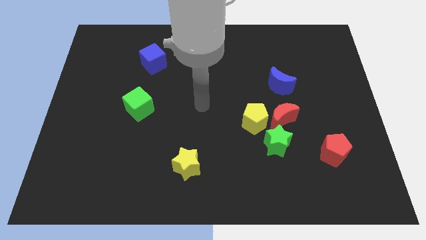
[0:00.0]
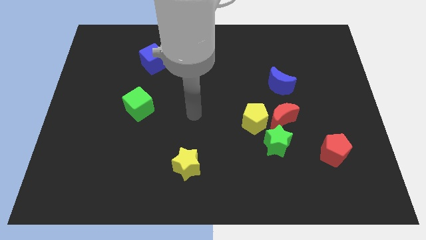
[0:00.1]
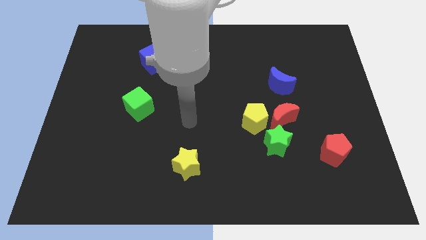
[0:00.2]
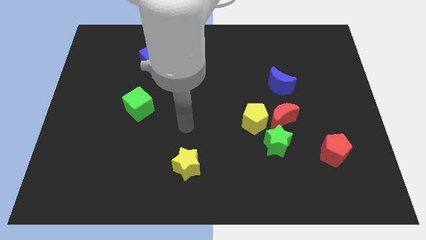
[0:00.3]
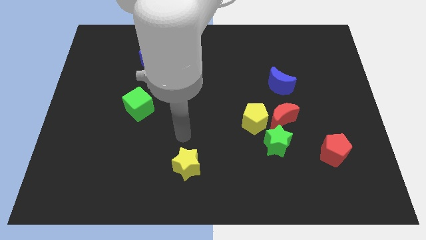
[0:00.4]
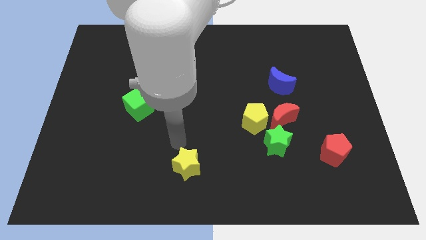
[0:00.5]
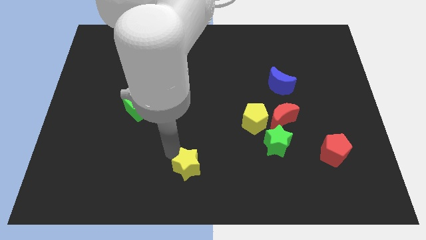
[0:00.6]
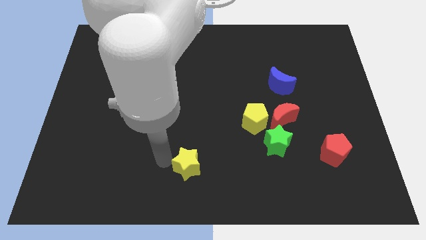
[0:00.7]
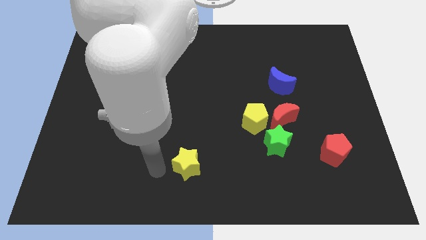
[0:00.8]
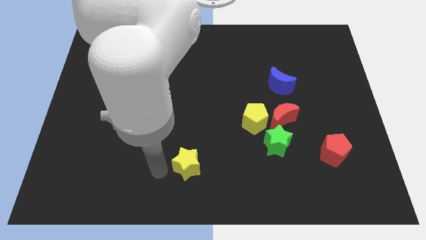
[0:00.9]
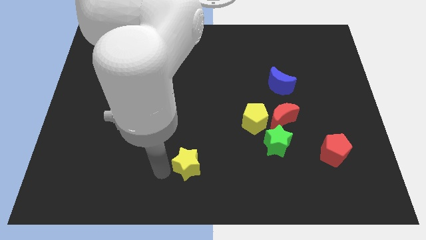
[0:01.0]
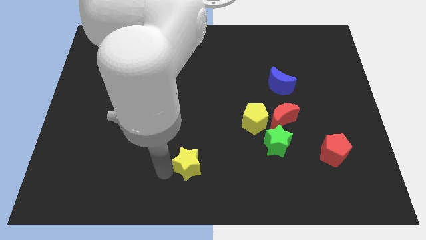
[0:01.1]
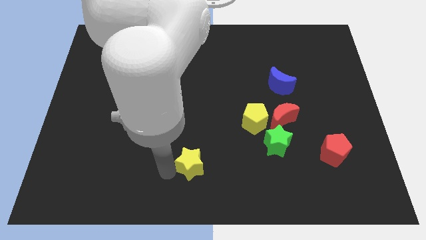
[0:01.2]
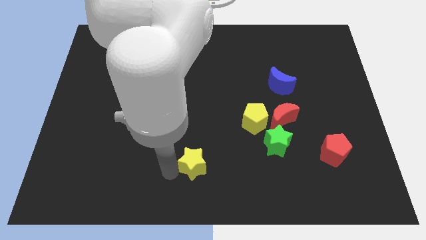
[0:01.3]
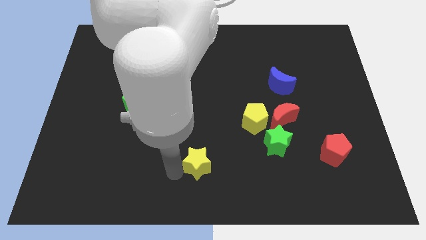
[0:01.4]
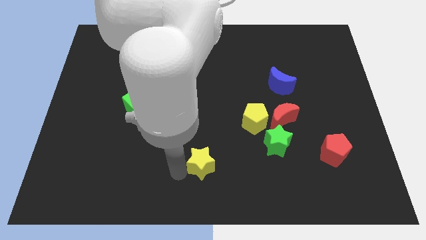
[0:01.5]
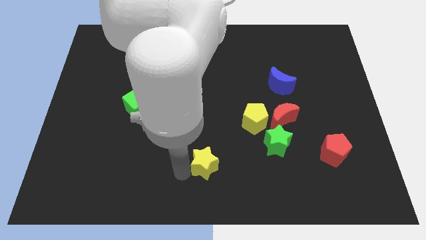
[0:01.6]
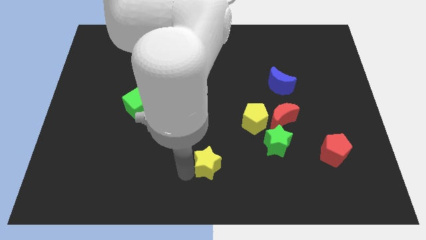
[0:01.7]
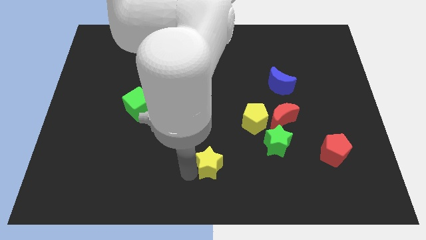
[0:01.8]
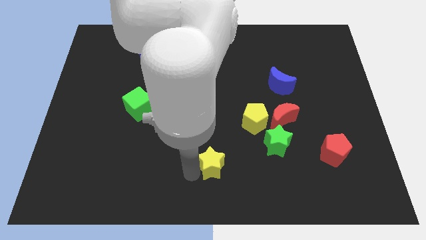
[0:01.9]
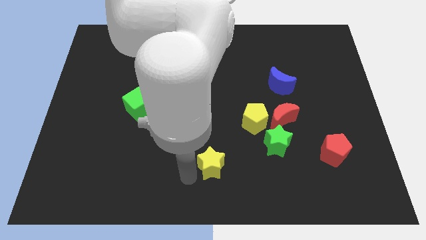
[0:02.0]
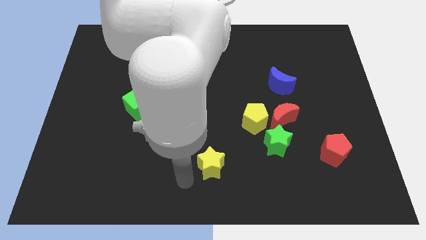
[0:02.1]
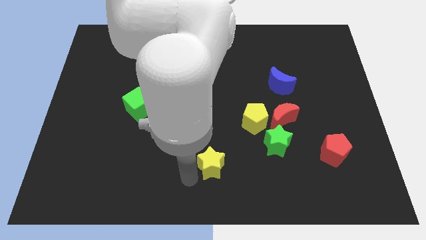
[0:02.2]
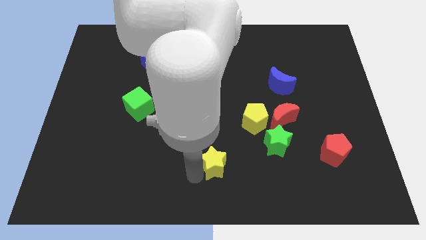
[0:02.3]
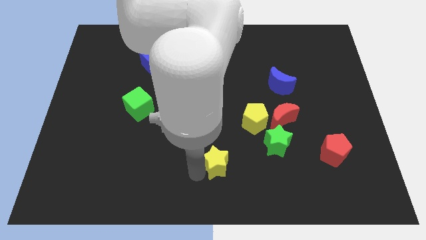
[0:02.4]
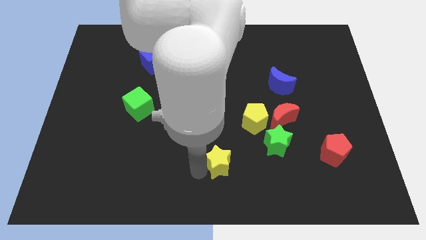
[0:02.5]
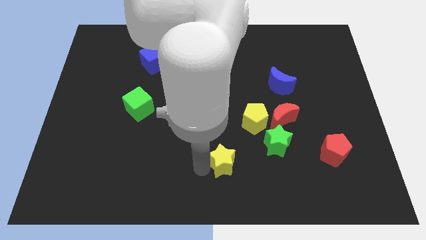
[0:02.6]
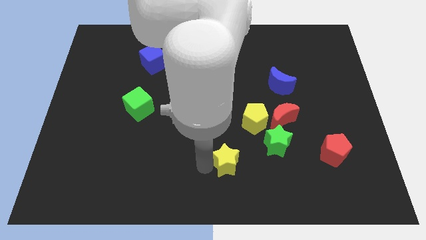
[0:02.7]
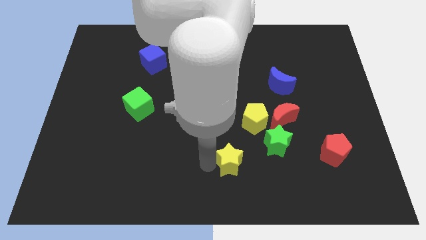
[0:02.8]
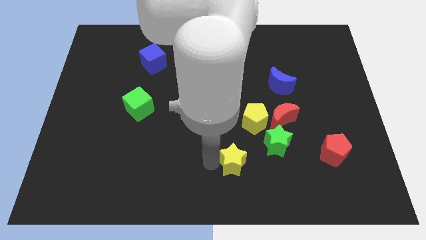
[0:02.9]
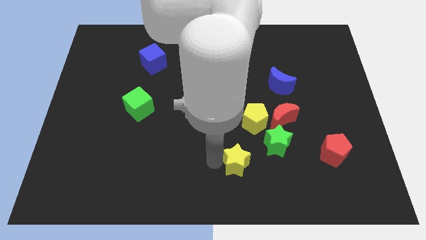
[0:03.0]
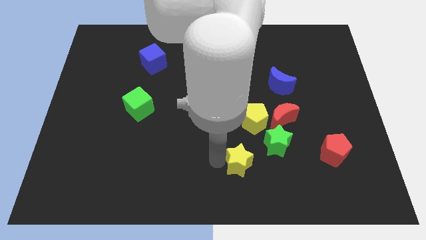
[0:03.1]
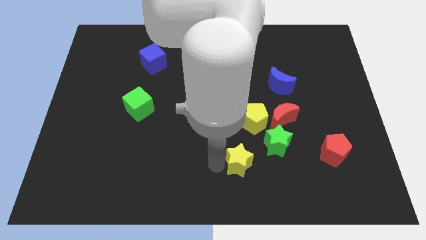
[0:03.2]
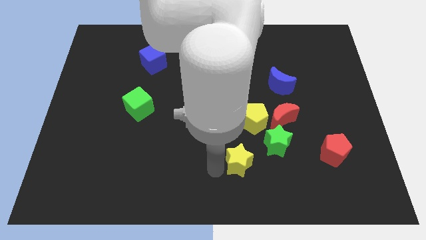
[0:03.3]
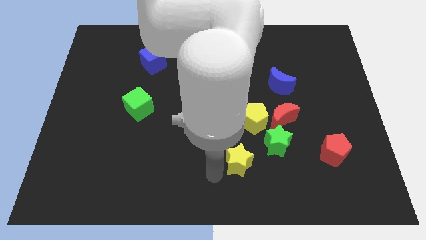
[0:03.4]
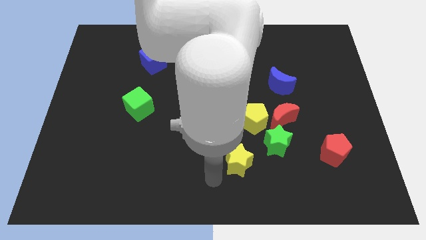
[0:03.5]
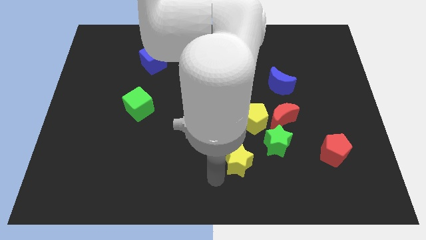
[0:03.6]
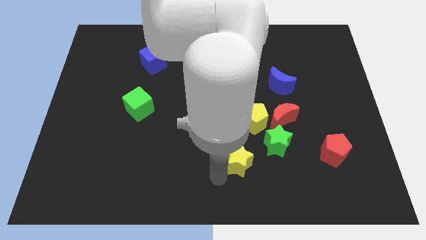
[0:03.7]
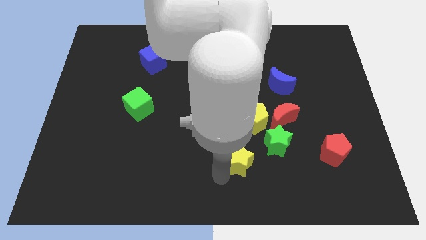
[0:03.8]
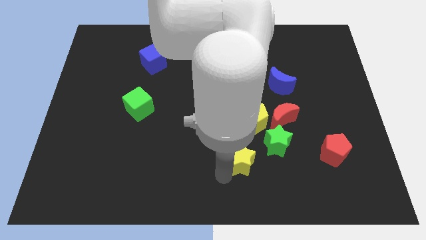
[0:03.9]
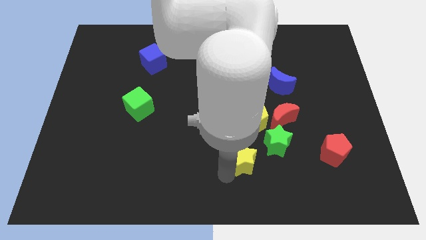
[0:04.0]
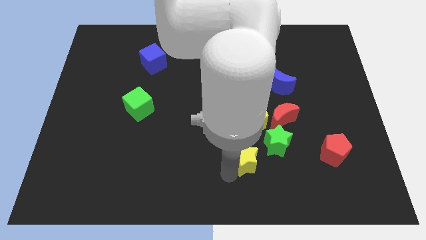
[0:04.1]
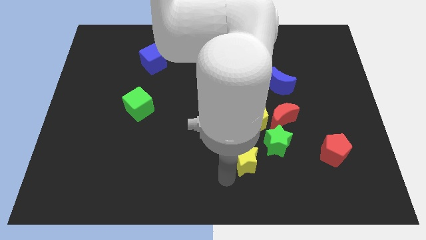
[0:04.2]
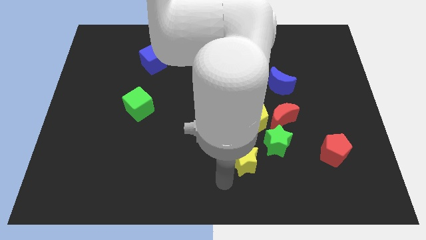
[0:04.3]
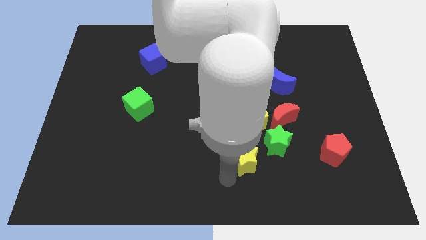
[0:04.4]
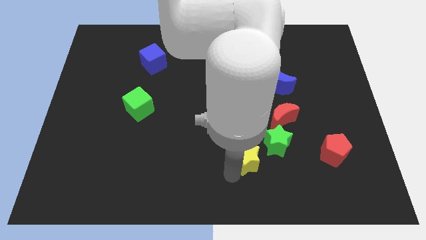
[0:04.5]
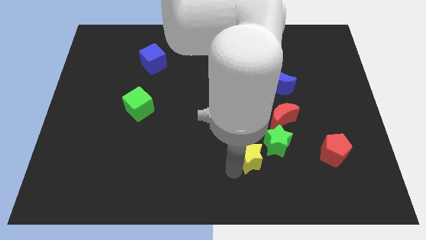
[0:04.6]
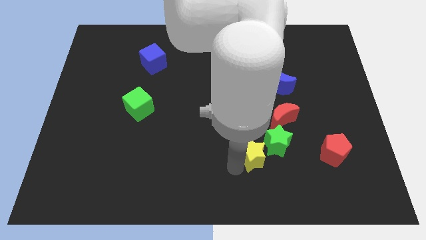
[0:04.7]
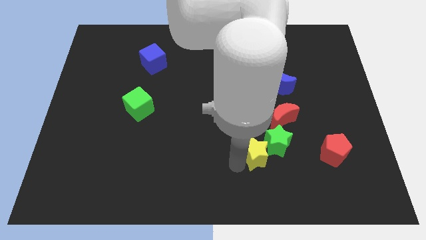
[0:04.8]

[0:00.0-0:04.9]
put the yellow star towards the green star

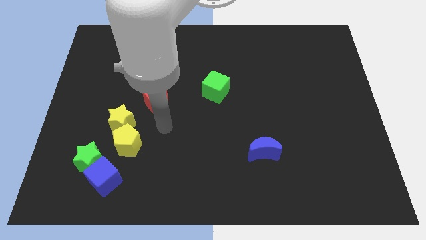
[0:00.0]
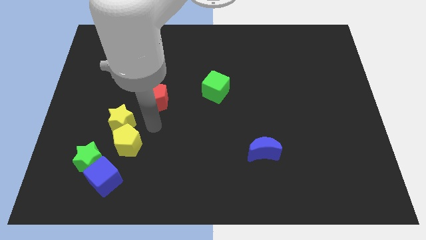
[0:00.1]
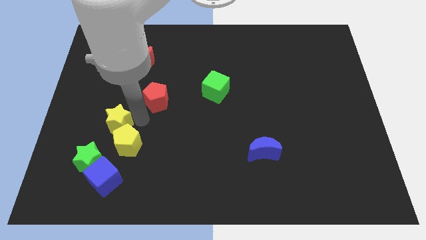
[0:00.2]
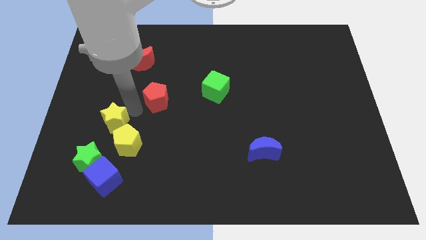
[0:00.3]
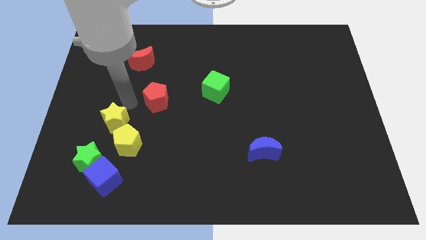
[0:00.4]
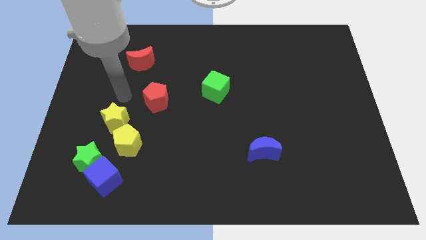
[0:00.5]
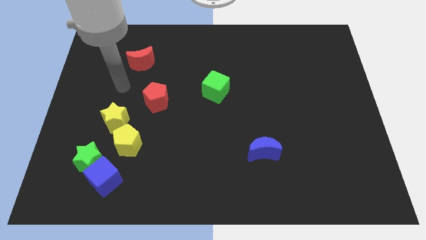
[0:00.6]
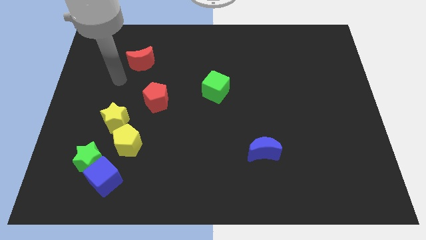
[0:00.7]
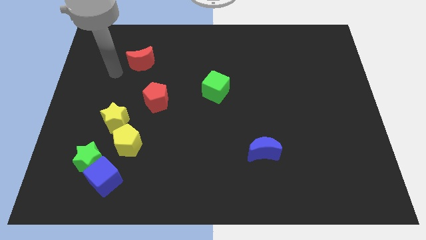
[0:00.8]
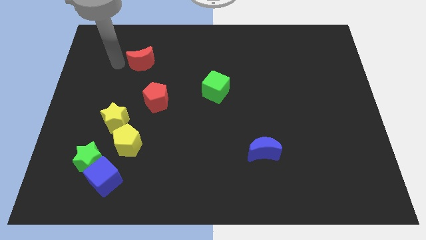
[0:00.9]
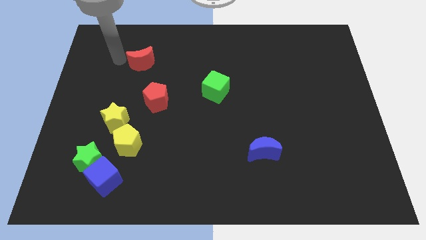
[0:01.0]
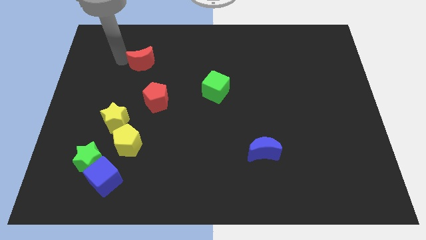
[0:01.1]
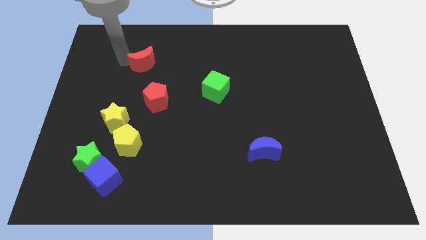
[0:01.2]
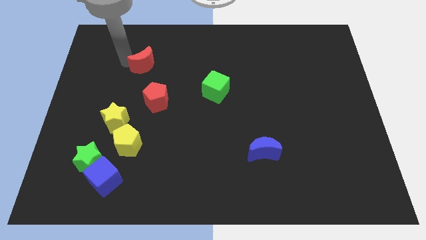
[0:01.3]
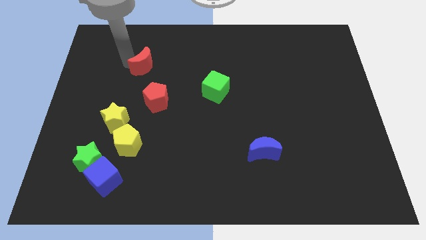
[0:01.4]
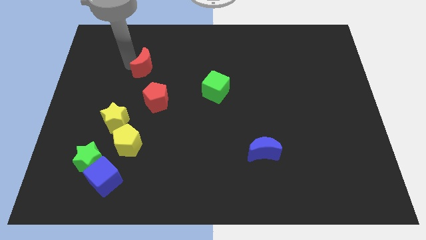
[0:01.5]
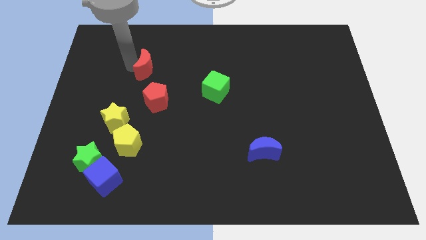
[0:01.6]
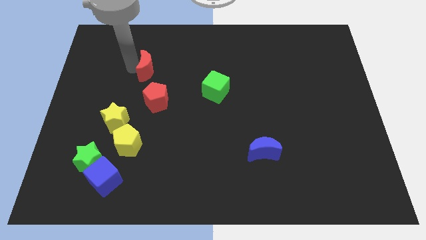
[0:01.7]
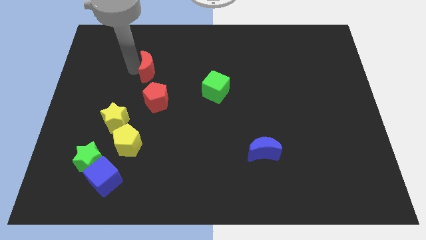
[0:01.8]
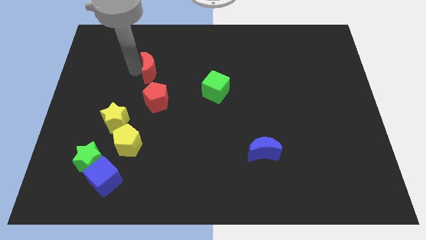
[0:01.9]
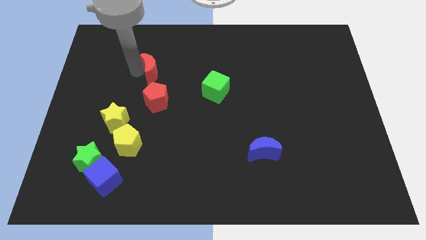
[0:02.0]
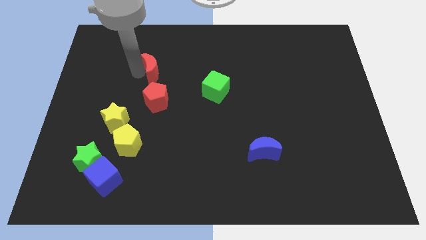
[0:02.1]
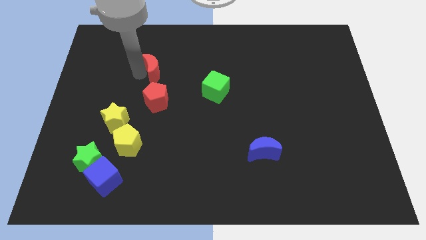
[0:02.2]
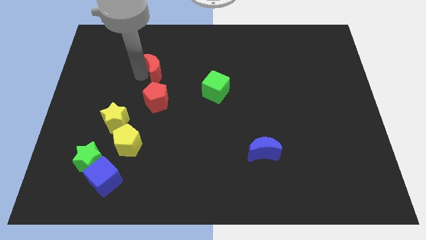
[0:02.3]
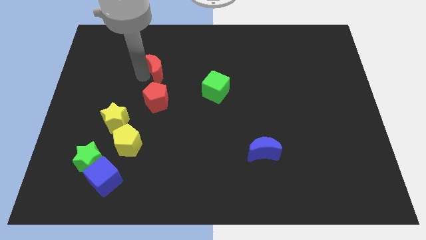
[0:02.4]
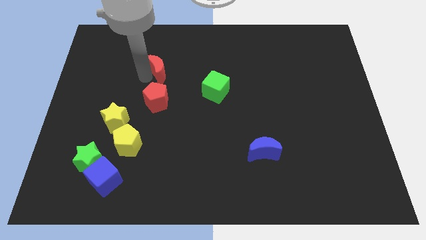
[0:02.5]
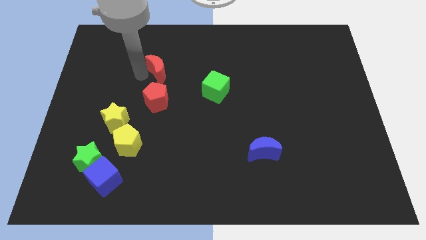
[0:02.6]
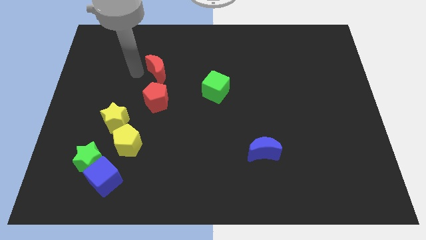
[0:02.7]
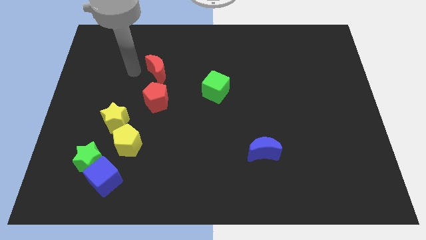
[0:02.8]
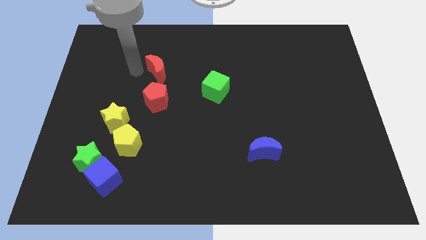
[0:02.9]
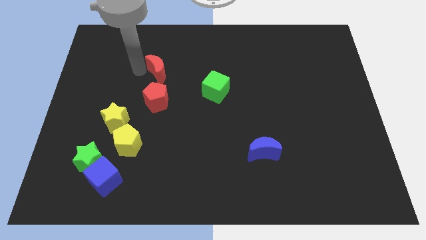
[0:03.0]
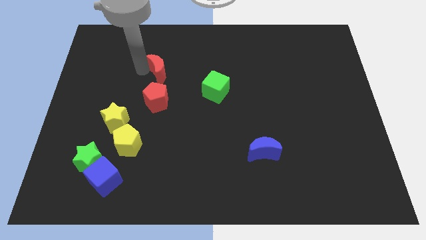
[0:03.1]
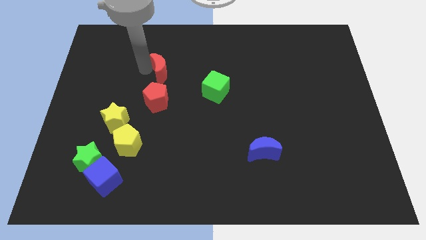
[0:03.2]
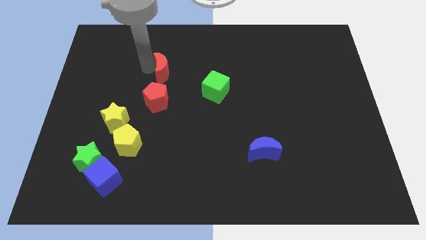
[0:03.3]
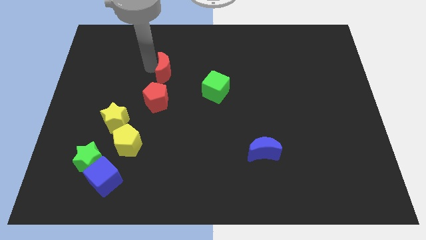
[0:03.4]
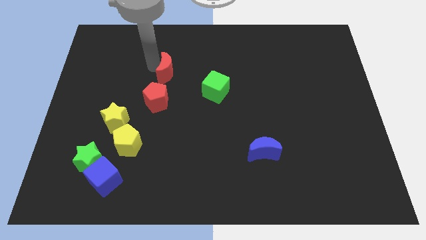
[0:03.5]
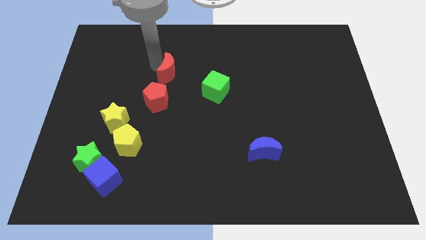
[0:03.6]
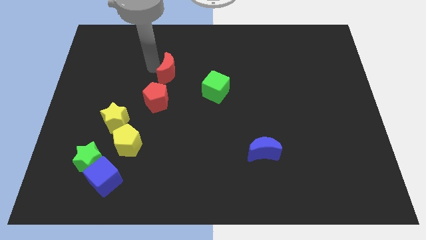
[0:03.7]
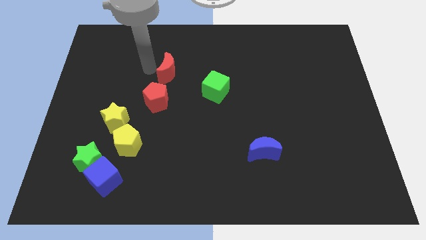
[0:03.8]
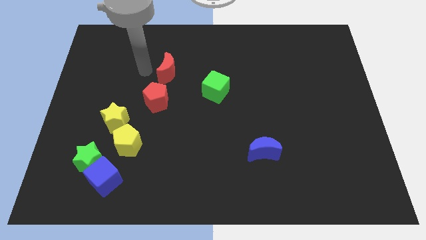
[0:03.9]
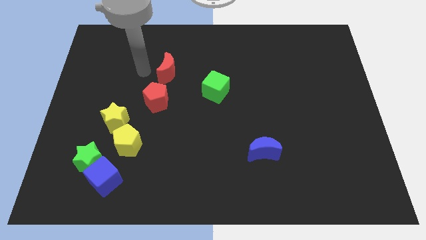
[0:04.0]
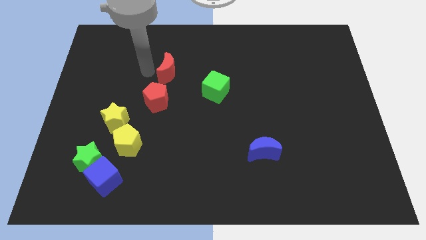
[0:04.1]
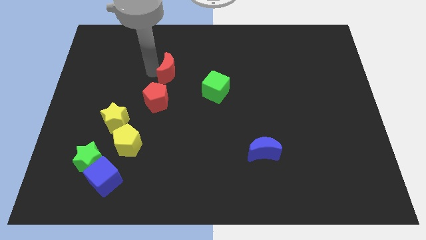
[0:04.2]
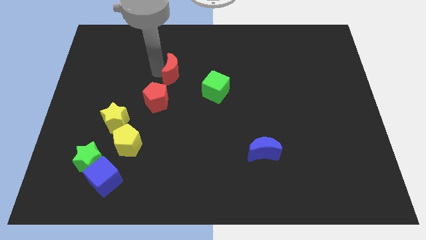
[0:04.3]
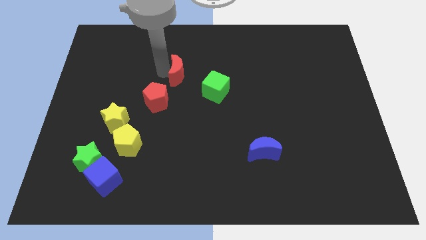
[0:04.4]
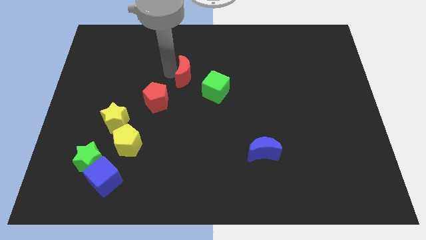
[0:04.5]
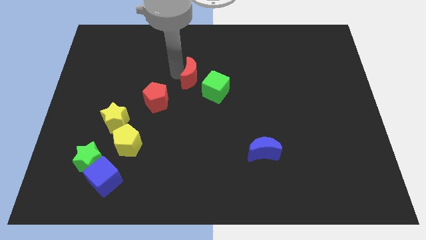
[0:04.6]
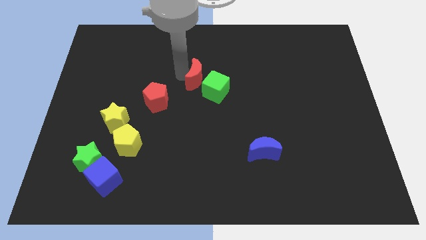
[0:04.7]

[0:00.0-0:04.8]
push the red moon to the green cube
